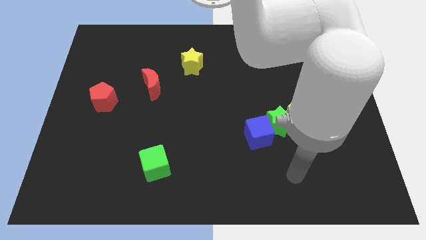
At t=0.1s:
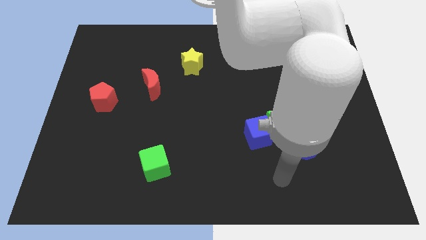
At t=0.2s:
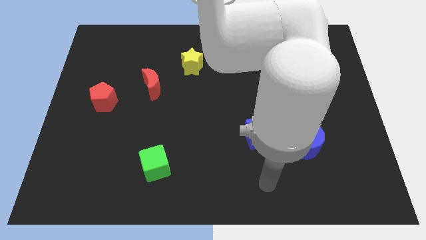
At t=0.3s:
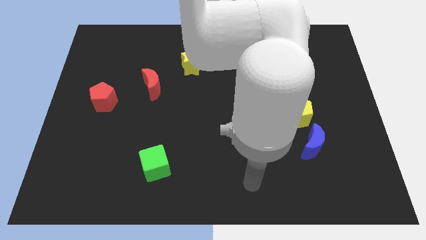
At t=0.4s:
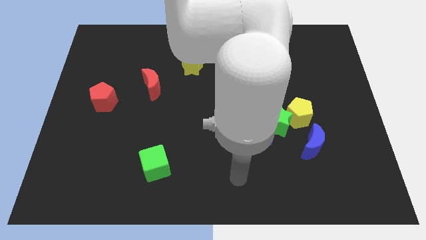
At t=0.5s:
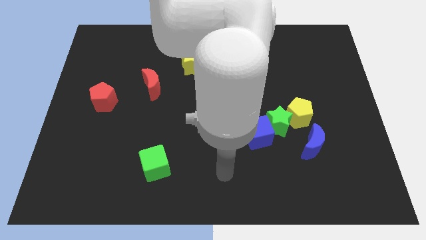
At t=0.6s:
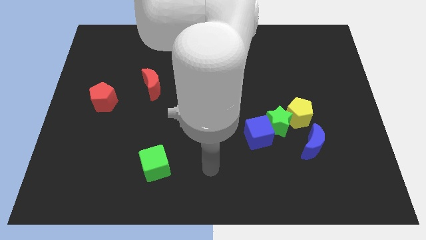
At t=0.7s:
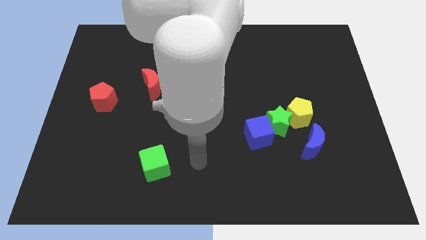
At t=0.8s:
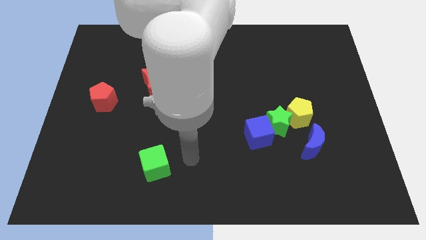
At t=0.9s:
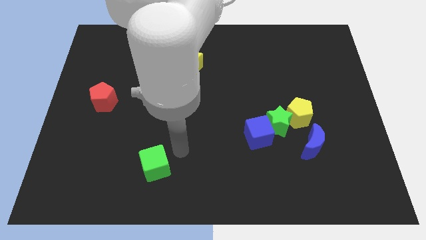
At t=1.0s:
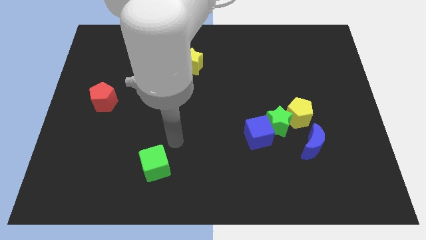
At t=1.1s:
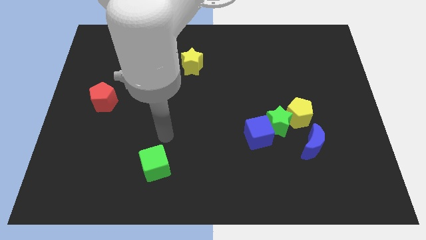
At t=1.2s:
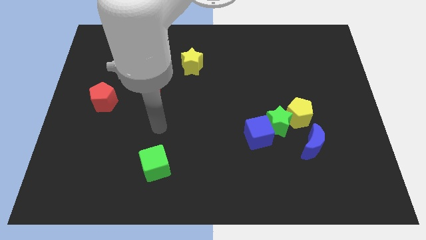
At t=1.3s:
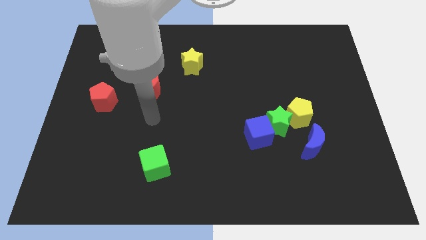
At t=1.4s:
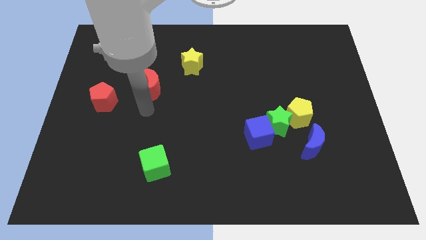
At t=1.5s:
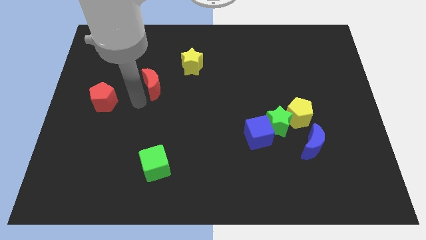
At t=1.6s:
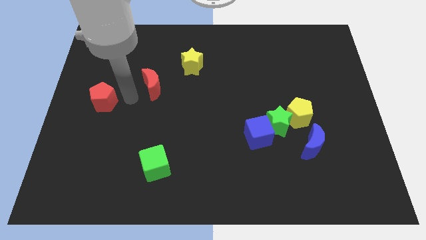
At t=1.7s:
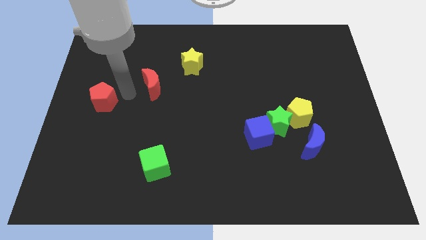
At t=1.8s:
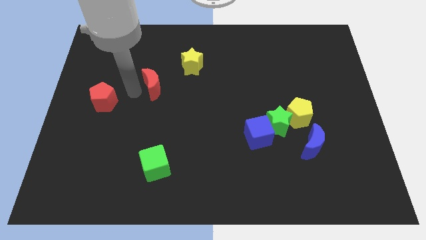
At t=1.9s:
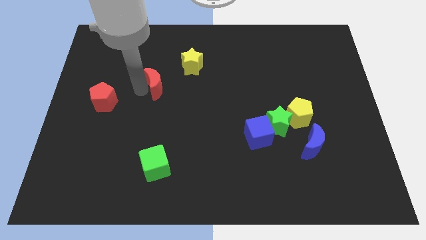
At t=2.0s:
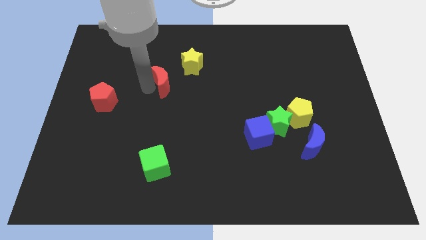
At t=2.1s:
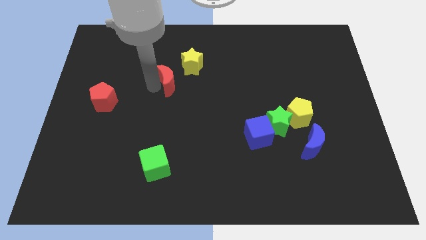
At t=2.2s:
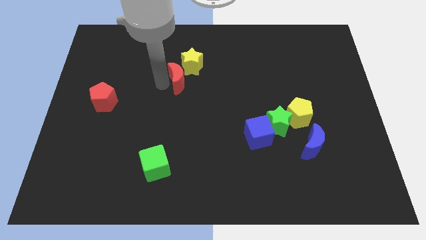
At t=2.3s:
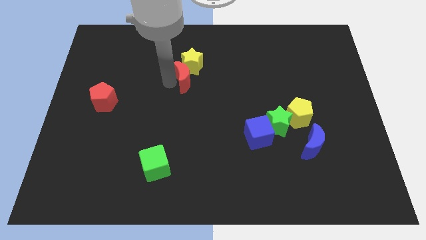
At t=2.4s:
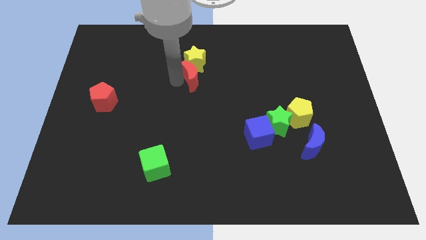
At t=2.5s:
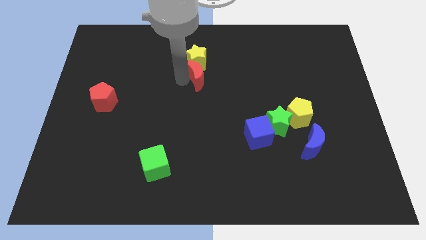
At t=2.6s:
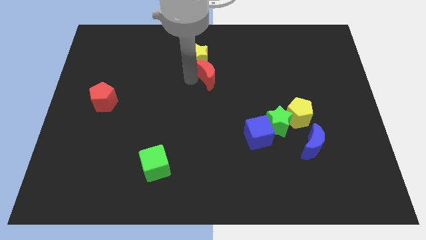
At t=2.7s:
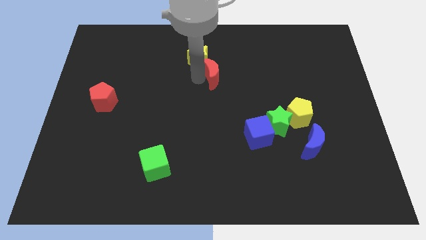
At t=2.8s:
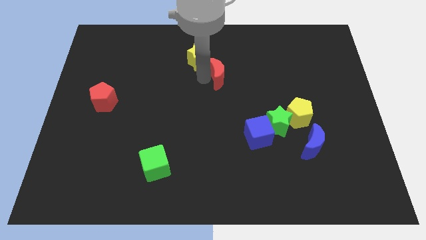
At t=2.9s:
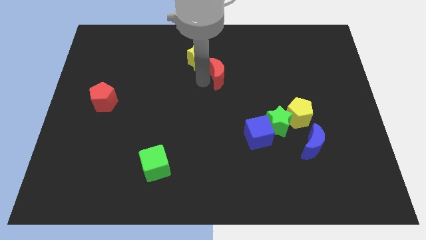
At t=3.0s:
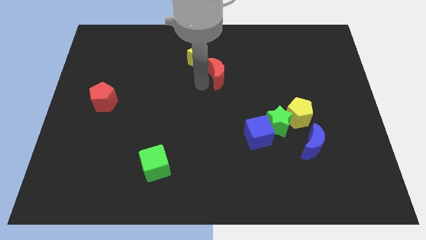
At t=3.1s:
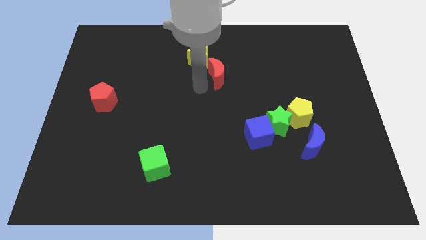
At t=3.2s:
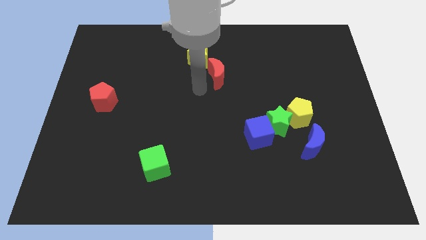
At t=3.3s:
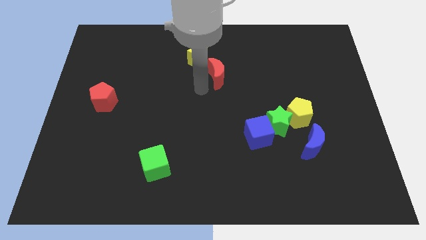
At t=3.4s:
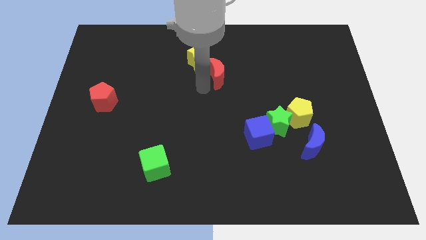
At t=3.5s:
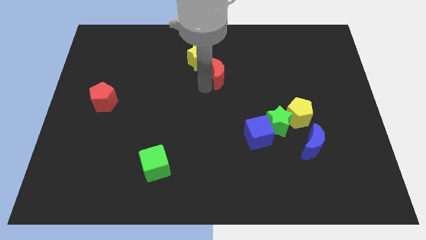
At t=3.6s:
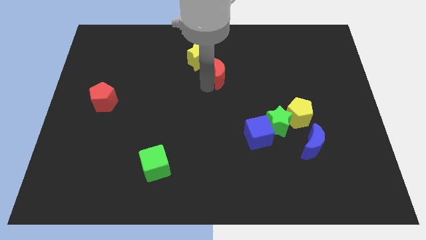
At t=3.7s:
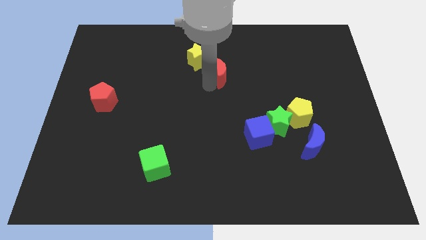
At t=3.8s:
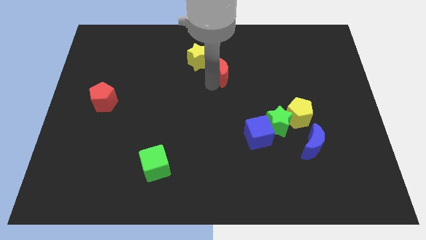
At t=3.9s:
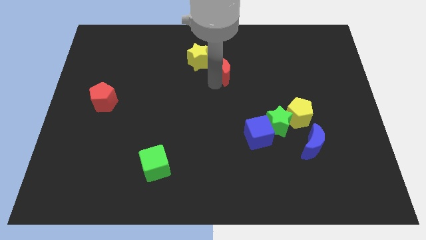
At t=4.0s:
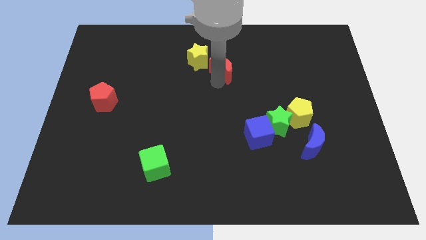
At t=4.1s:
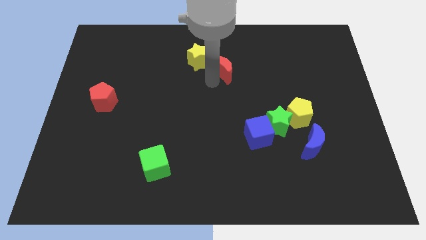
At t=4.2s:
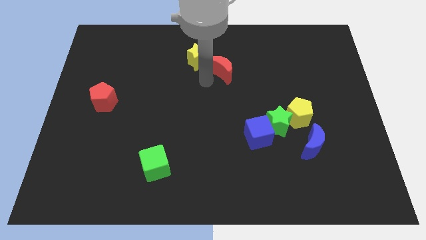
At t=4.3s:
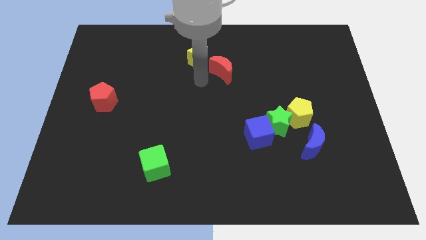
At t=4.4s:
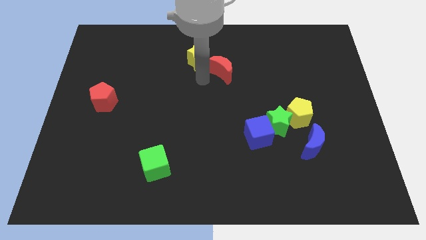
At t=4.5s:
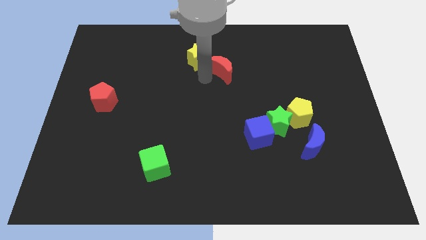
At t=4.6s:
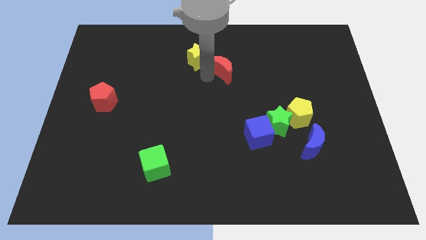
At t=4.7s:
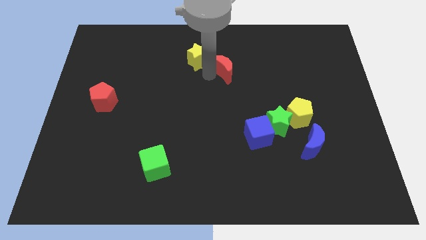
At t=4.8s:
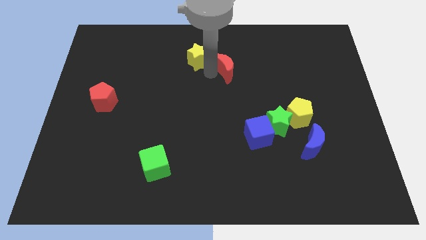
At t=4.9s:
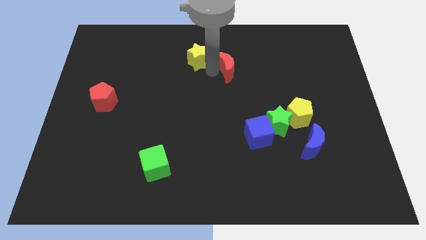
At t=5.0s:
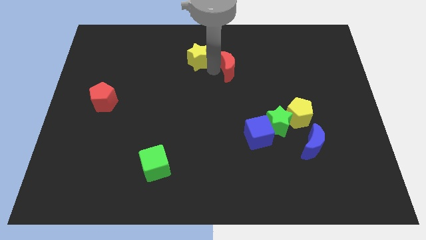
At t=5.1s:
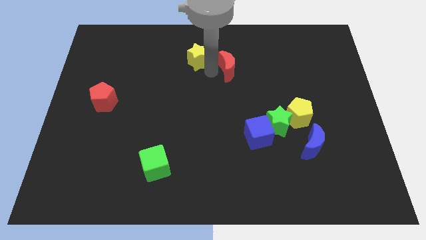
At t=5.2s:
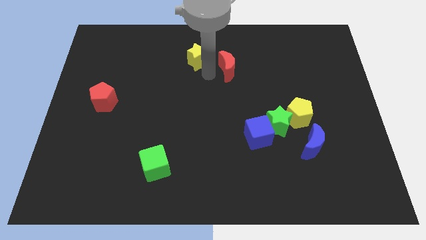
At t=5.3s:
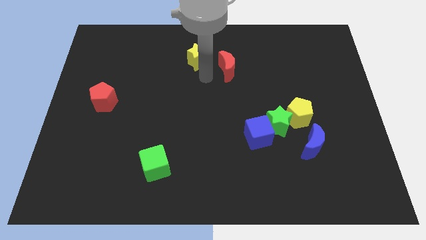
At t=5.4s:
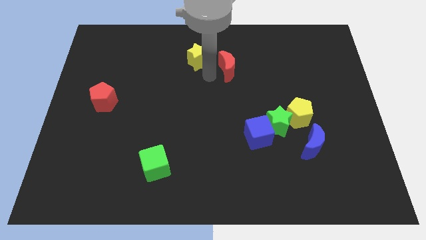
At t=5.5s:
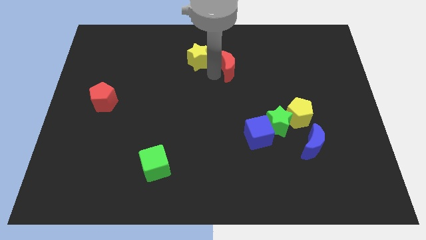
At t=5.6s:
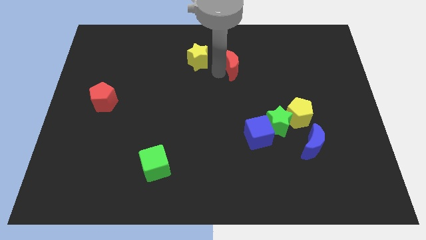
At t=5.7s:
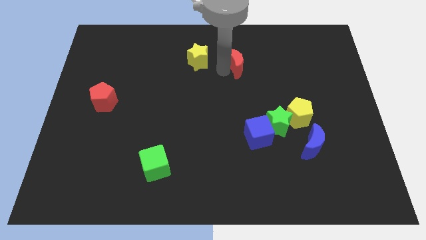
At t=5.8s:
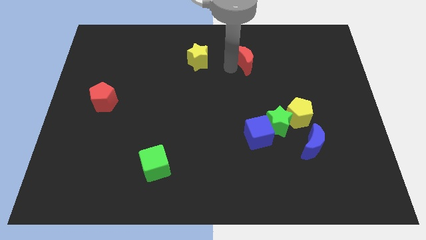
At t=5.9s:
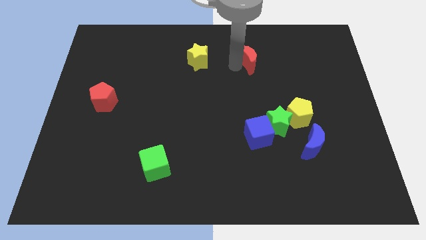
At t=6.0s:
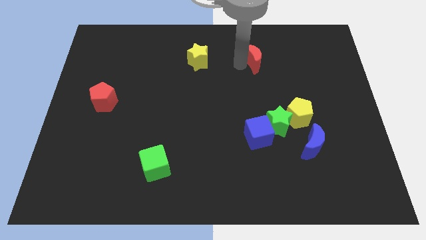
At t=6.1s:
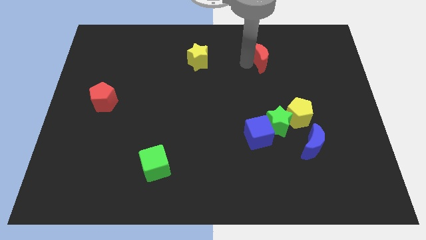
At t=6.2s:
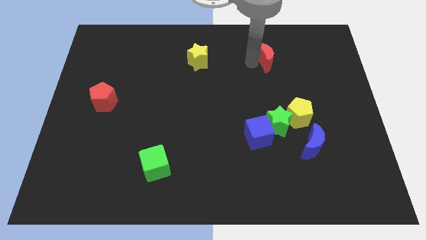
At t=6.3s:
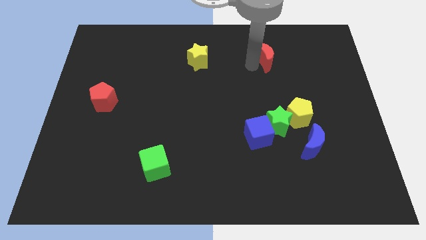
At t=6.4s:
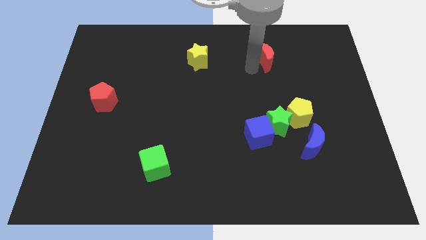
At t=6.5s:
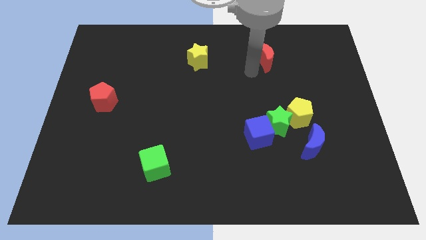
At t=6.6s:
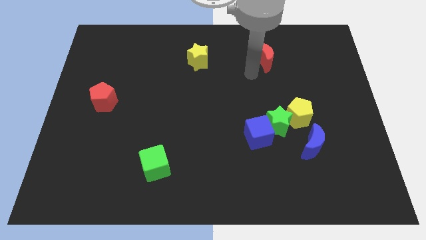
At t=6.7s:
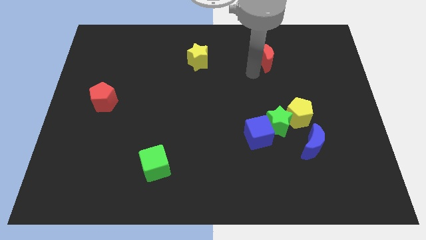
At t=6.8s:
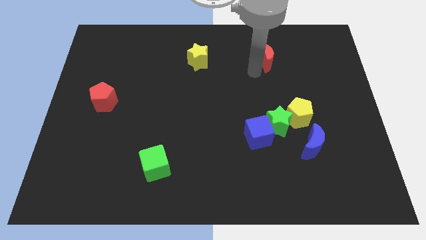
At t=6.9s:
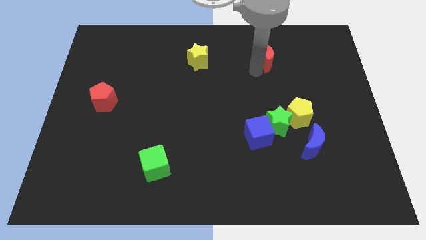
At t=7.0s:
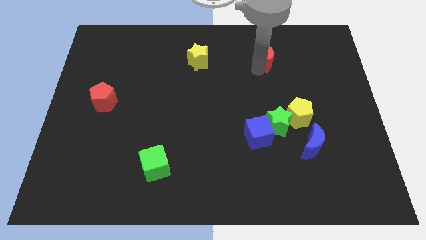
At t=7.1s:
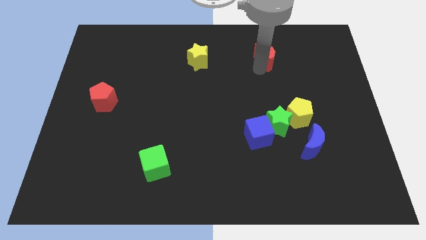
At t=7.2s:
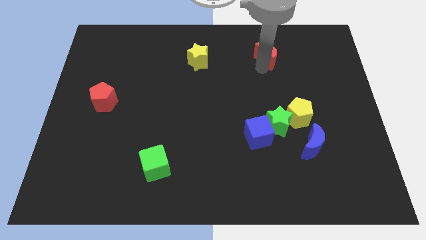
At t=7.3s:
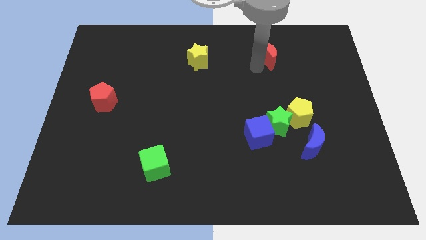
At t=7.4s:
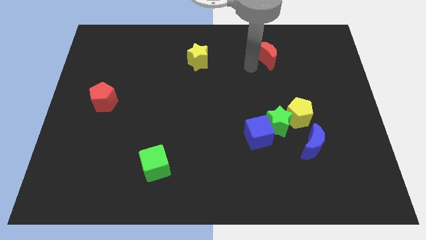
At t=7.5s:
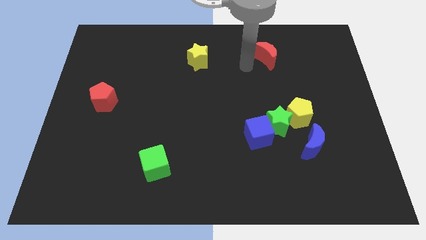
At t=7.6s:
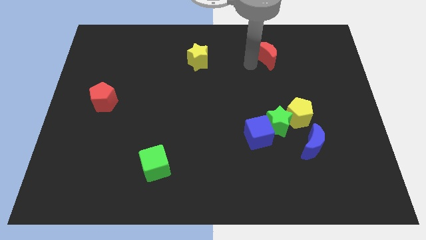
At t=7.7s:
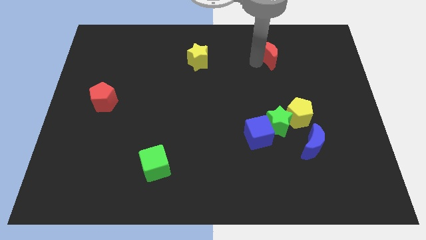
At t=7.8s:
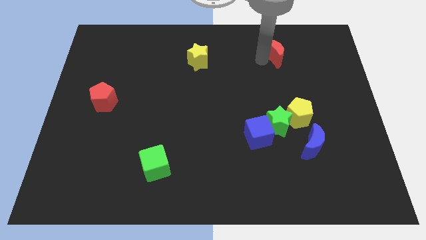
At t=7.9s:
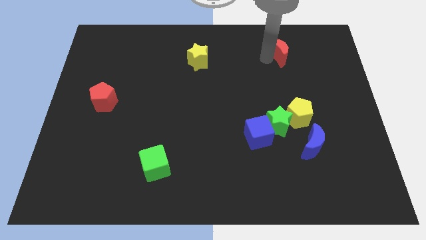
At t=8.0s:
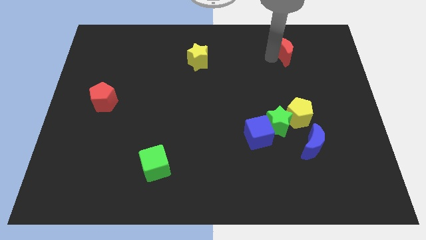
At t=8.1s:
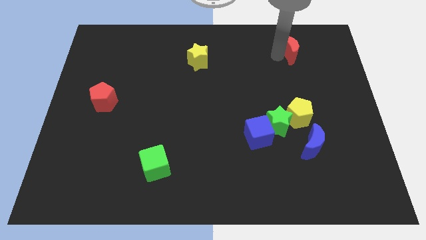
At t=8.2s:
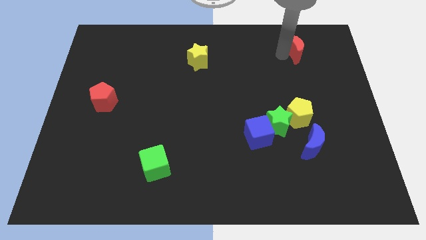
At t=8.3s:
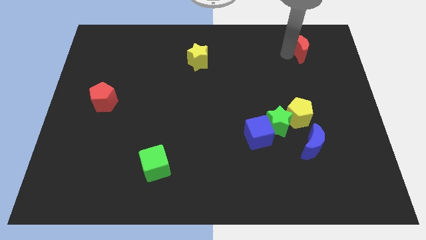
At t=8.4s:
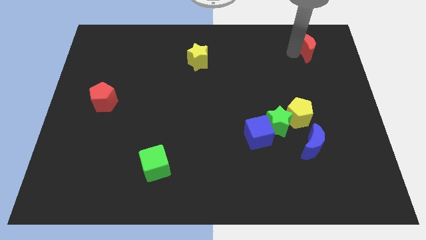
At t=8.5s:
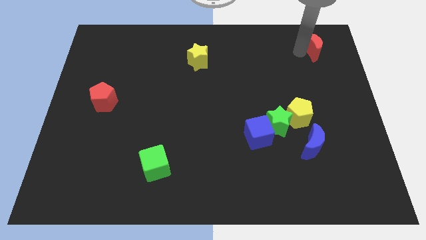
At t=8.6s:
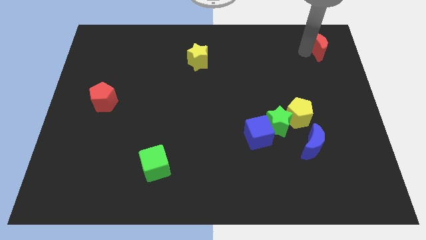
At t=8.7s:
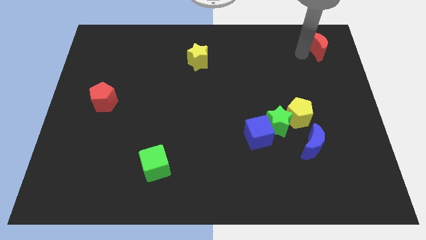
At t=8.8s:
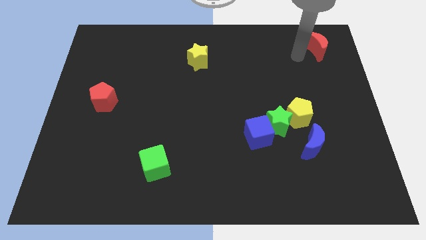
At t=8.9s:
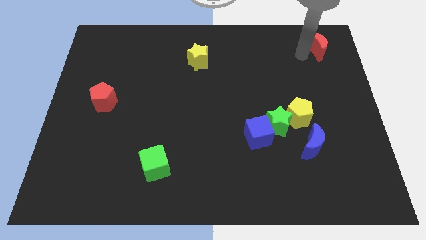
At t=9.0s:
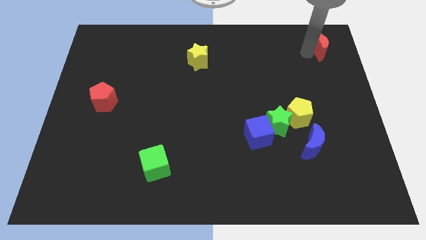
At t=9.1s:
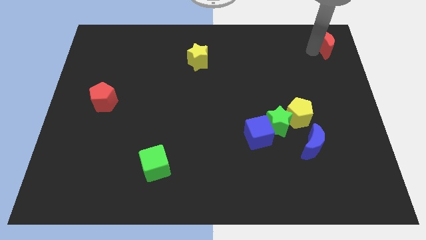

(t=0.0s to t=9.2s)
move the red moon to the upper right corner
